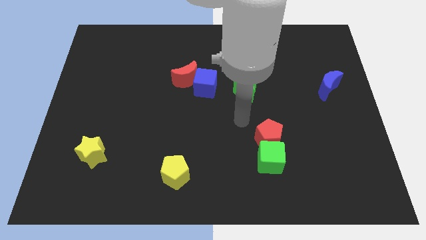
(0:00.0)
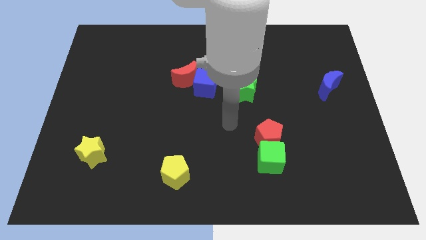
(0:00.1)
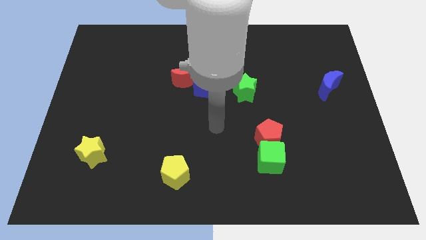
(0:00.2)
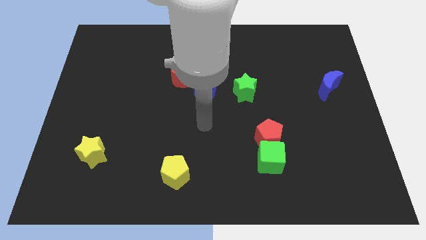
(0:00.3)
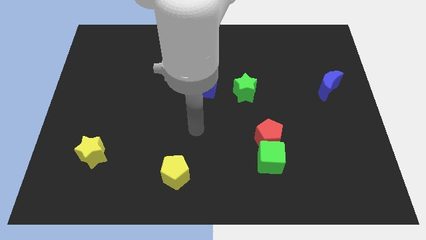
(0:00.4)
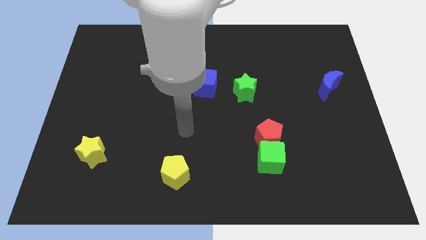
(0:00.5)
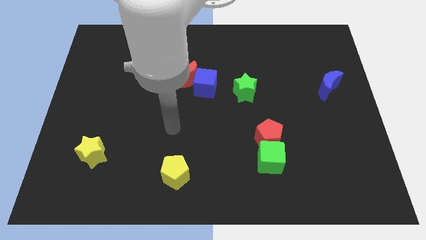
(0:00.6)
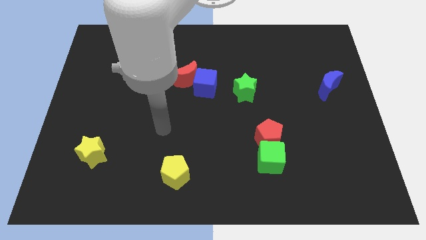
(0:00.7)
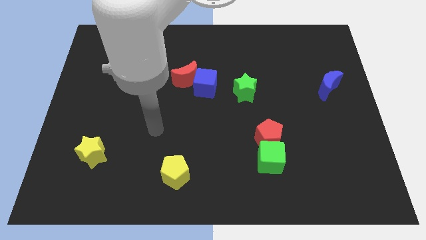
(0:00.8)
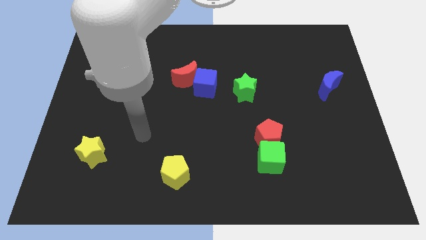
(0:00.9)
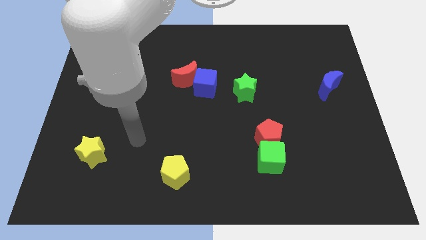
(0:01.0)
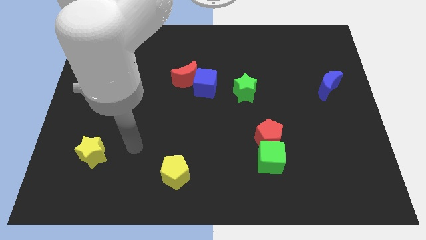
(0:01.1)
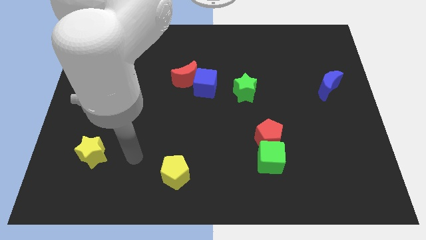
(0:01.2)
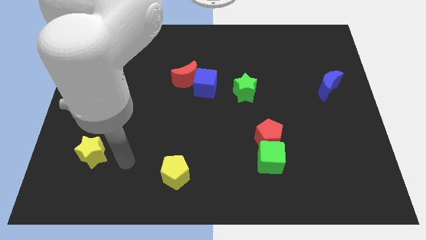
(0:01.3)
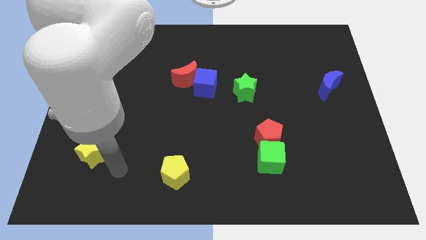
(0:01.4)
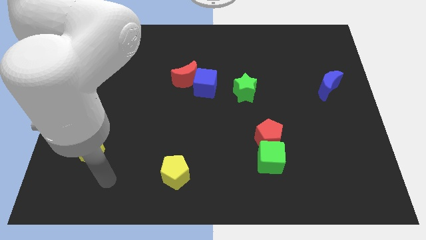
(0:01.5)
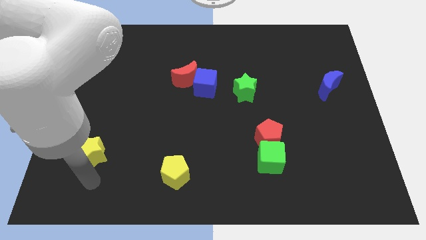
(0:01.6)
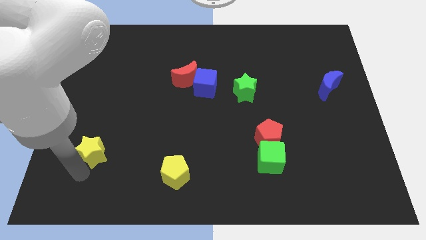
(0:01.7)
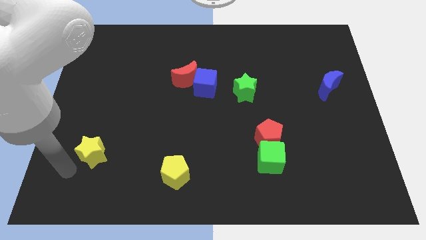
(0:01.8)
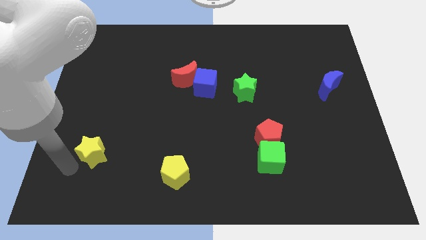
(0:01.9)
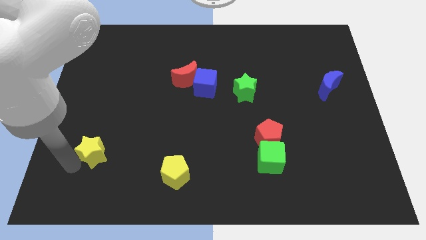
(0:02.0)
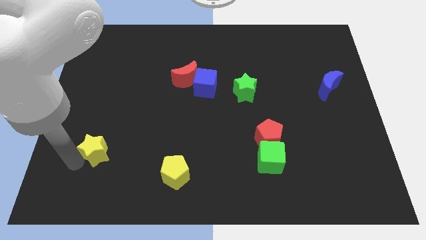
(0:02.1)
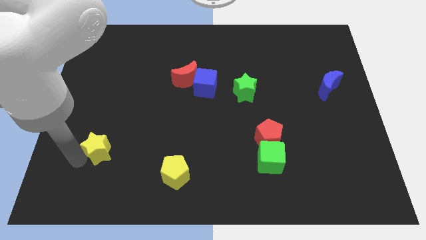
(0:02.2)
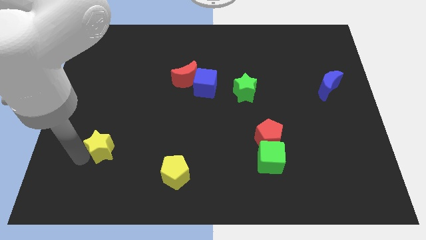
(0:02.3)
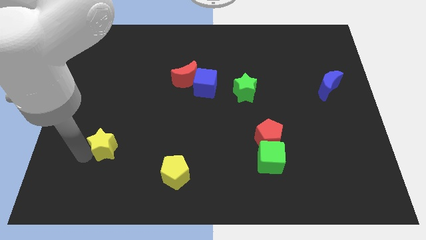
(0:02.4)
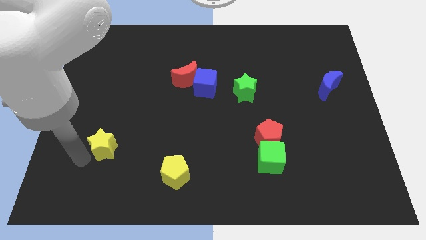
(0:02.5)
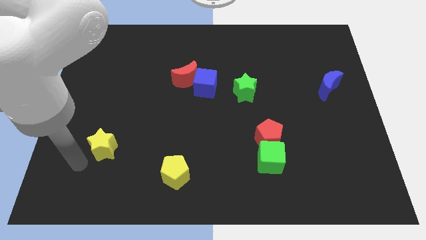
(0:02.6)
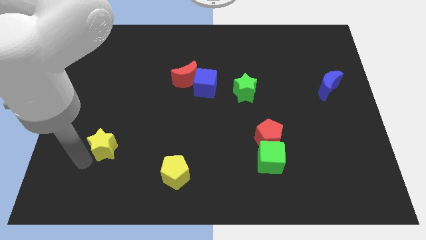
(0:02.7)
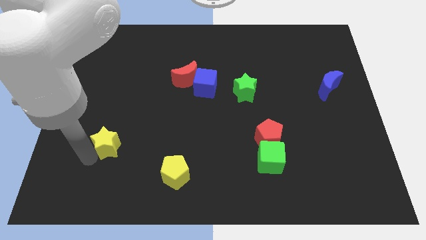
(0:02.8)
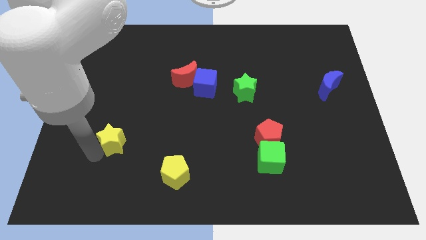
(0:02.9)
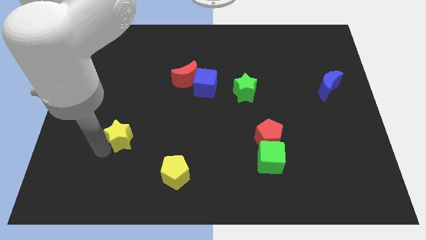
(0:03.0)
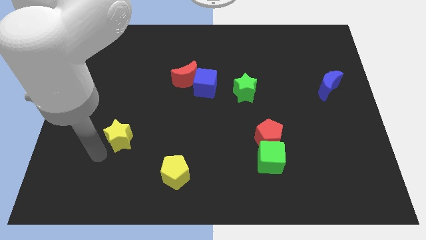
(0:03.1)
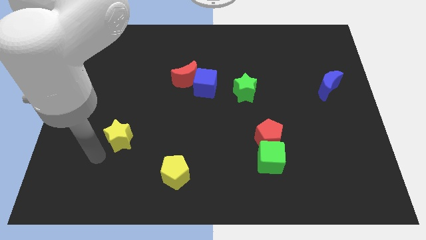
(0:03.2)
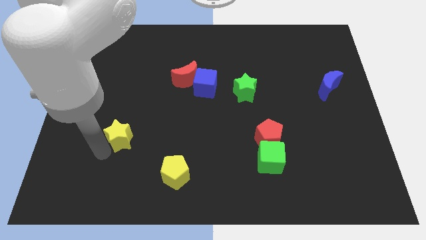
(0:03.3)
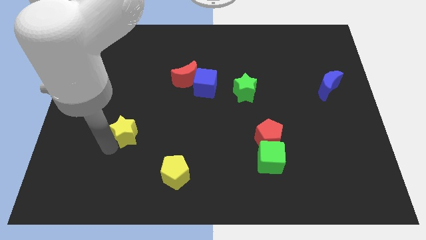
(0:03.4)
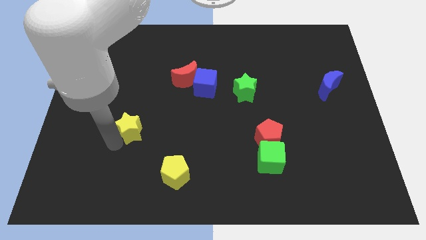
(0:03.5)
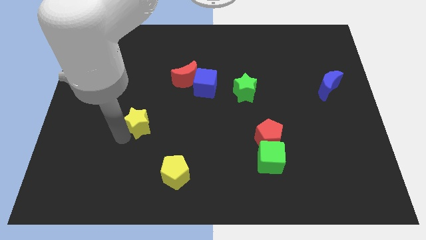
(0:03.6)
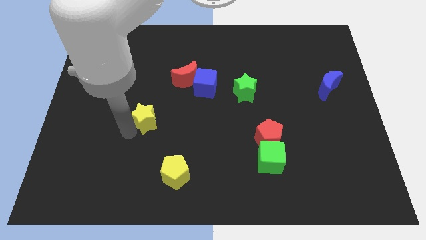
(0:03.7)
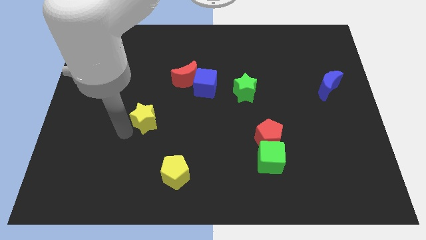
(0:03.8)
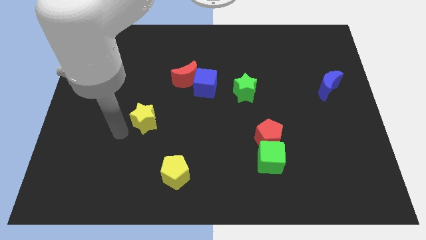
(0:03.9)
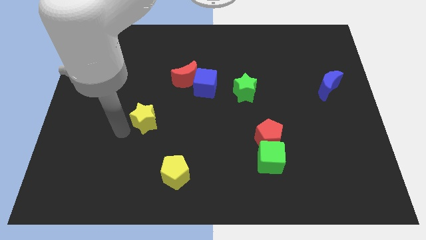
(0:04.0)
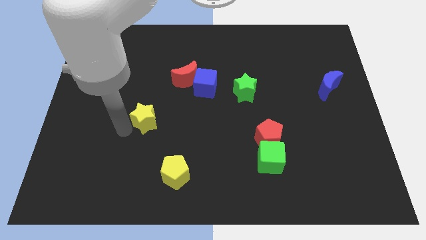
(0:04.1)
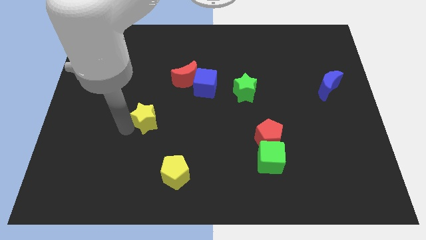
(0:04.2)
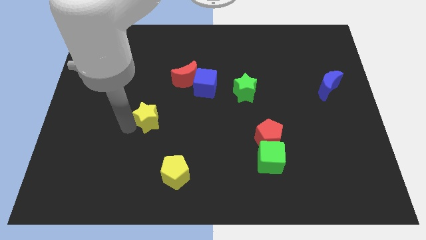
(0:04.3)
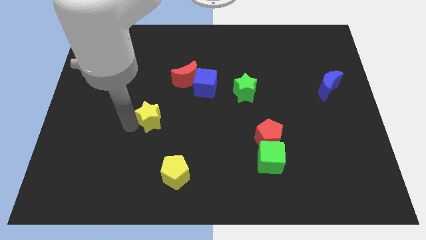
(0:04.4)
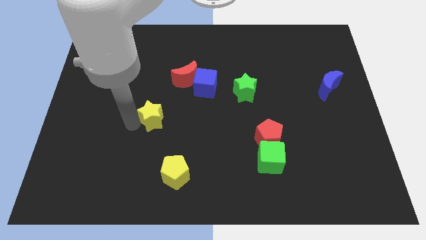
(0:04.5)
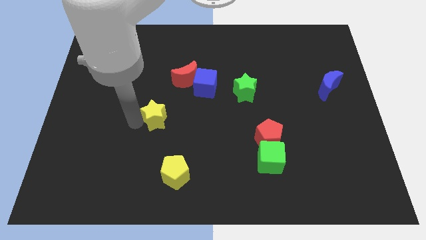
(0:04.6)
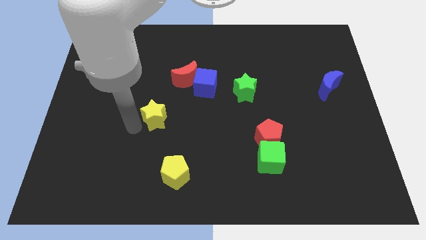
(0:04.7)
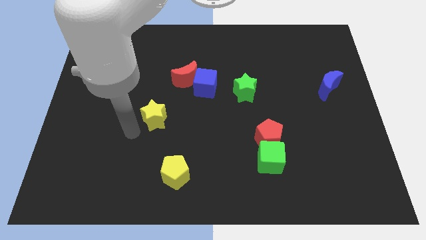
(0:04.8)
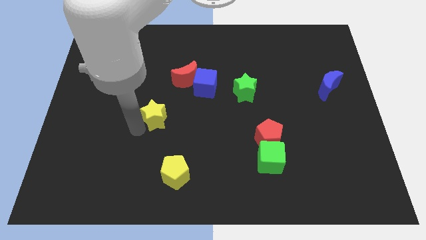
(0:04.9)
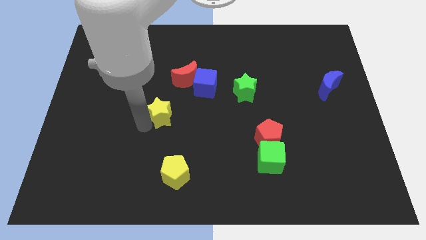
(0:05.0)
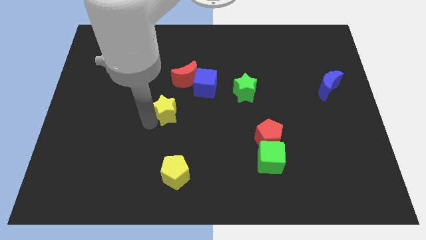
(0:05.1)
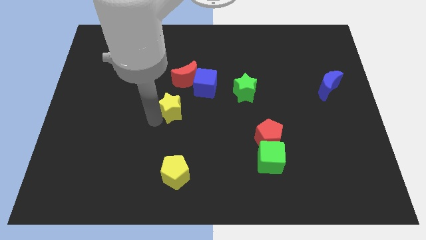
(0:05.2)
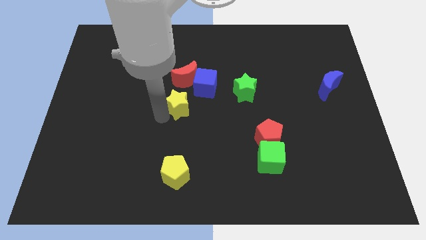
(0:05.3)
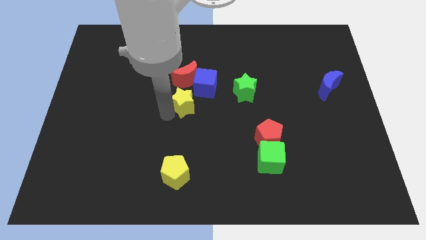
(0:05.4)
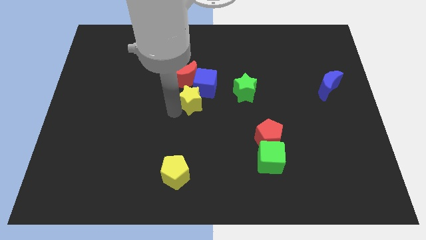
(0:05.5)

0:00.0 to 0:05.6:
move the yellow star close to the blue cube

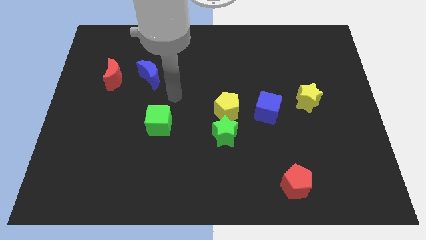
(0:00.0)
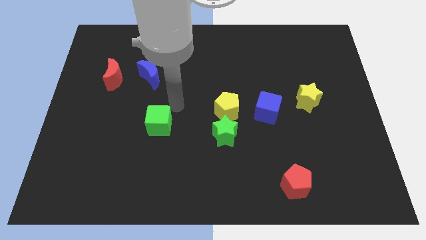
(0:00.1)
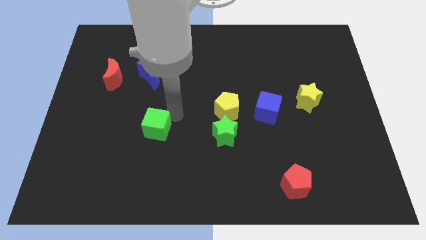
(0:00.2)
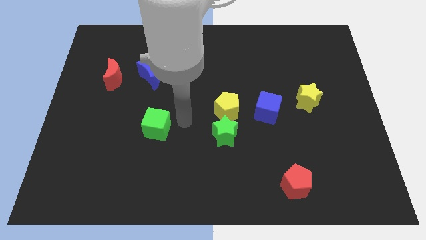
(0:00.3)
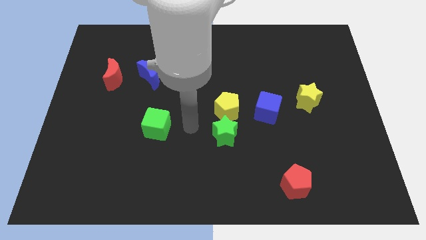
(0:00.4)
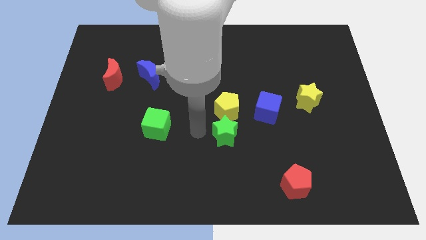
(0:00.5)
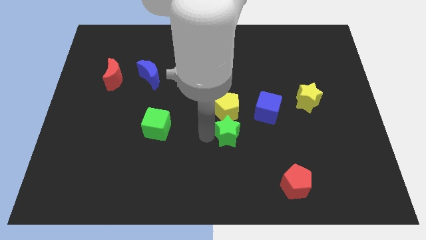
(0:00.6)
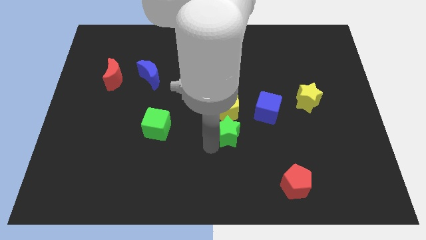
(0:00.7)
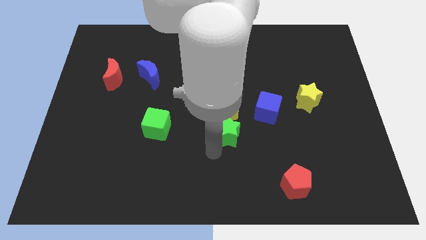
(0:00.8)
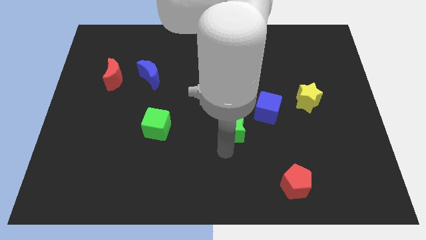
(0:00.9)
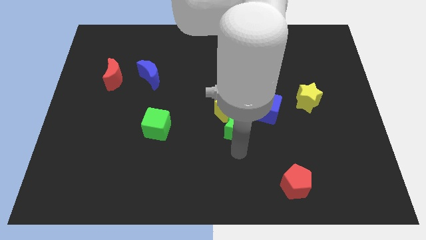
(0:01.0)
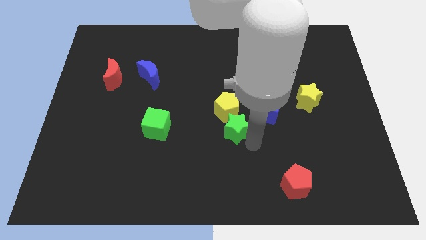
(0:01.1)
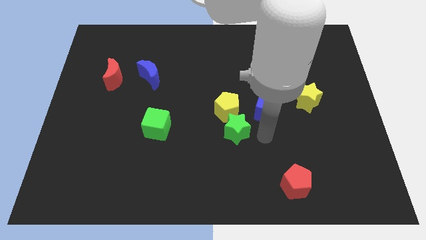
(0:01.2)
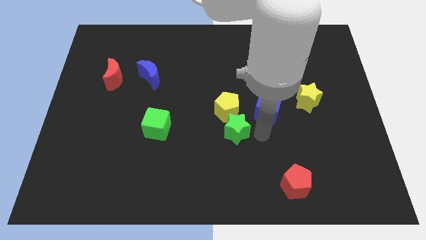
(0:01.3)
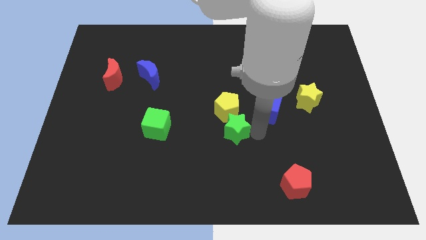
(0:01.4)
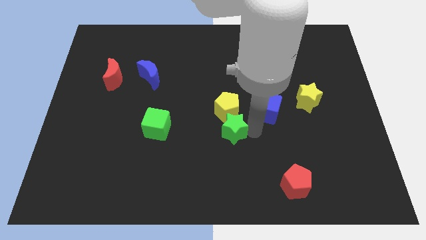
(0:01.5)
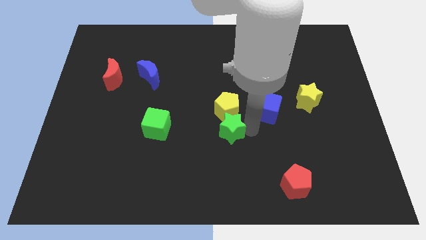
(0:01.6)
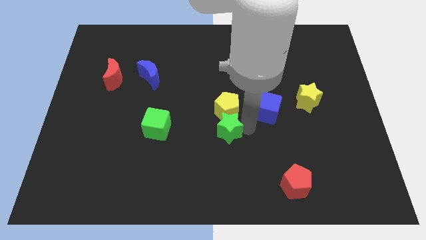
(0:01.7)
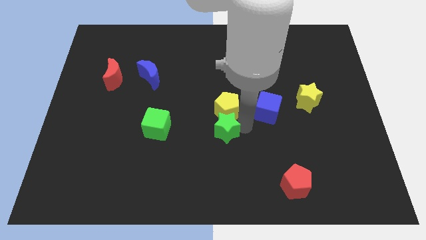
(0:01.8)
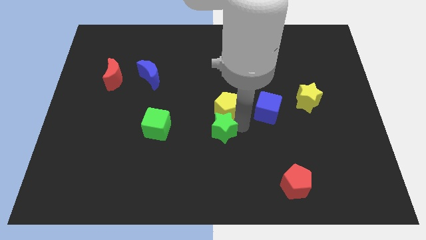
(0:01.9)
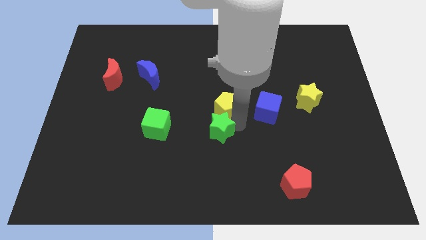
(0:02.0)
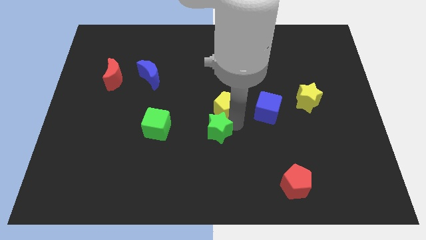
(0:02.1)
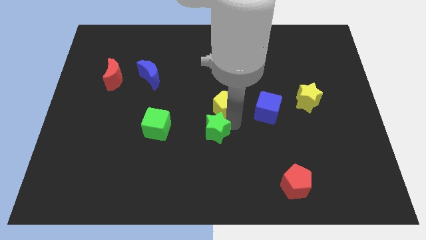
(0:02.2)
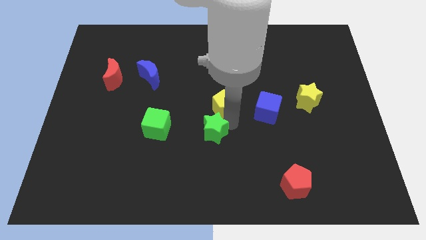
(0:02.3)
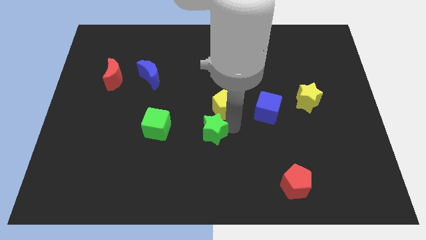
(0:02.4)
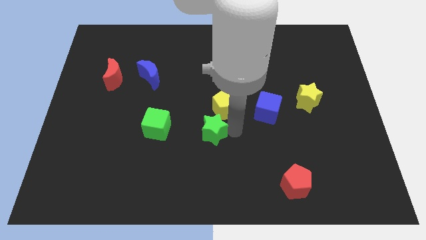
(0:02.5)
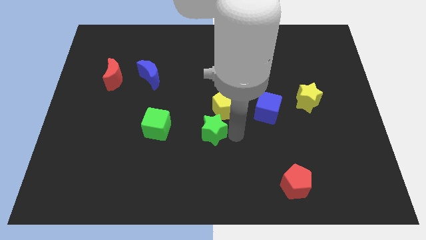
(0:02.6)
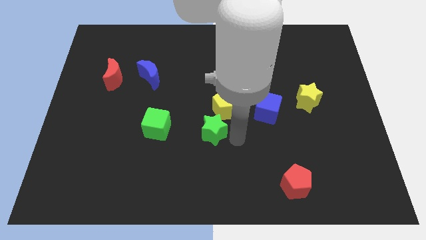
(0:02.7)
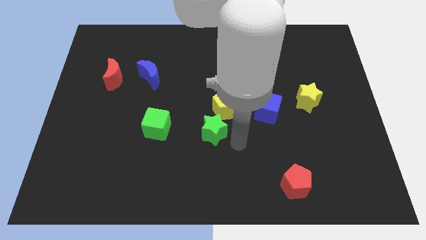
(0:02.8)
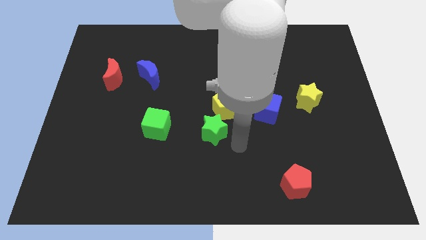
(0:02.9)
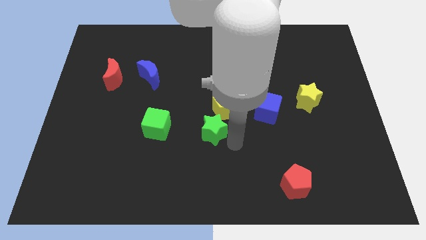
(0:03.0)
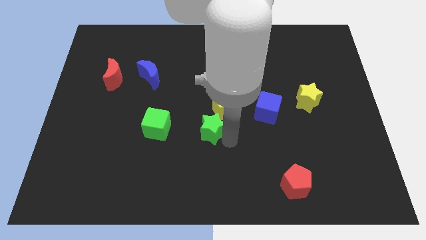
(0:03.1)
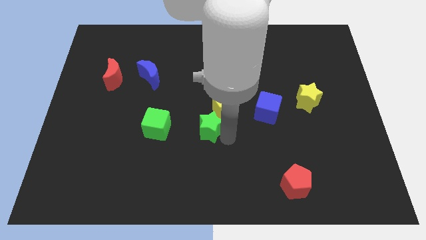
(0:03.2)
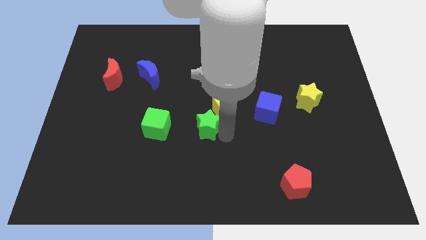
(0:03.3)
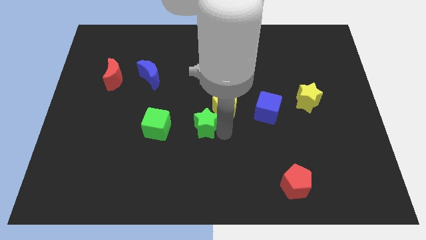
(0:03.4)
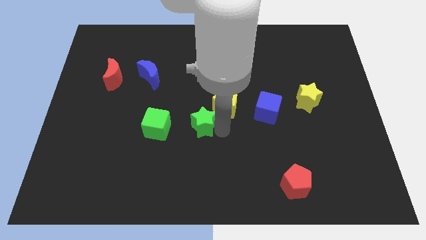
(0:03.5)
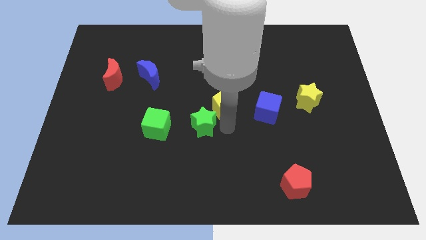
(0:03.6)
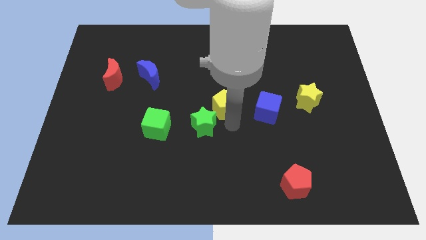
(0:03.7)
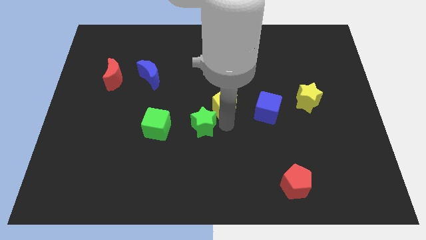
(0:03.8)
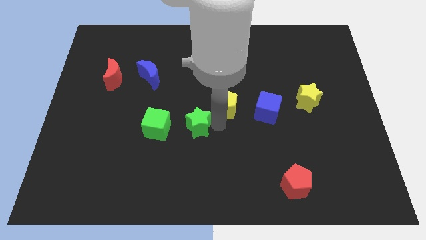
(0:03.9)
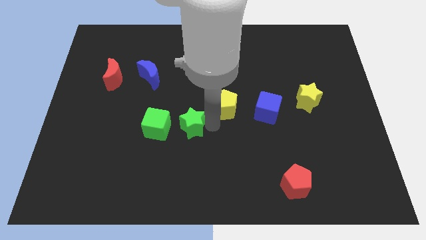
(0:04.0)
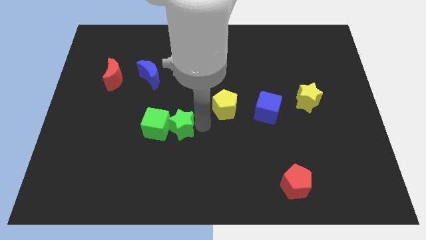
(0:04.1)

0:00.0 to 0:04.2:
move the green star next to the green cube
